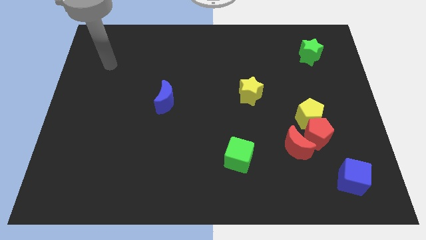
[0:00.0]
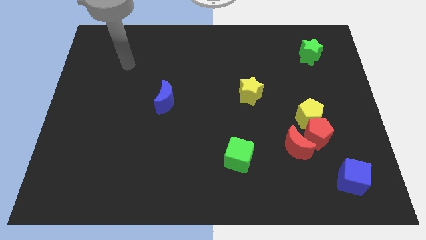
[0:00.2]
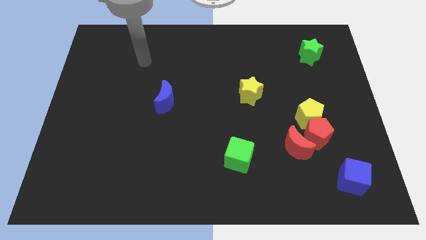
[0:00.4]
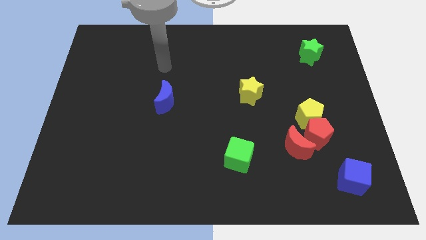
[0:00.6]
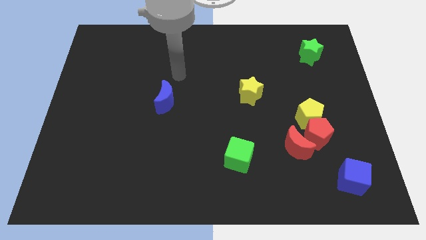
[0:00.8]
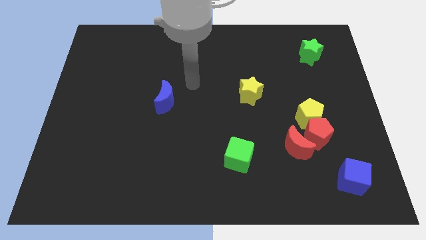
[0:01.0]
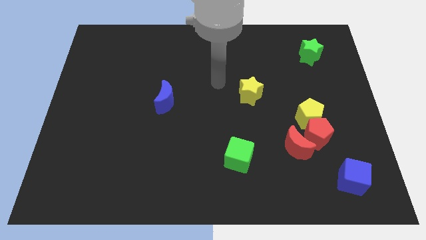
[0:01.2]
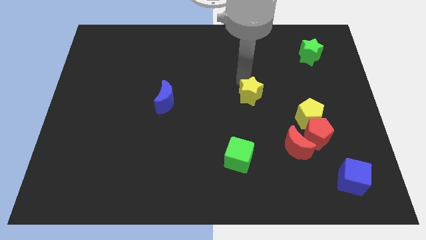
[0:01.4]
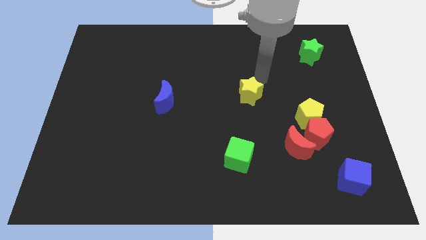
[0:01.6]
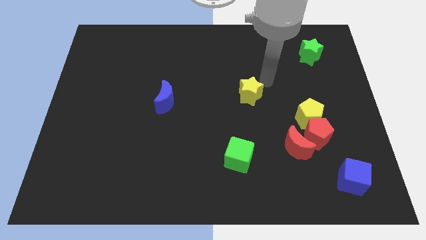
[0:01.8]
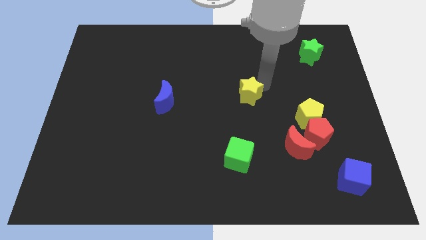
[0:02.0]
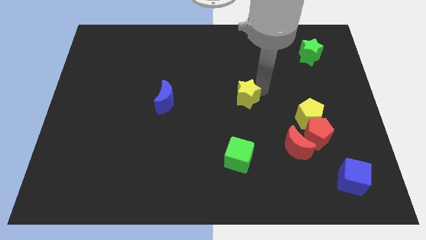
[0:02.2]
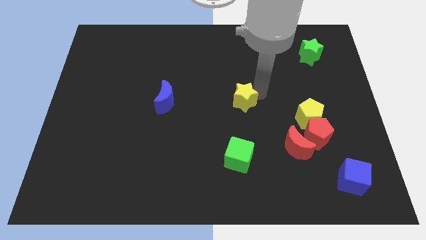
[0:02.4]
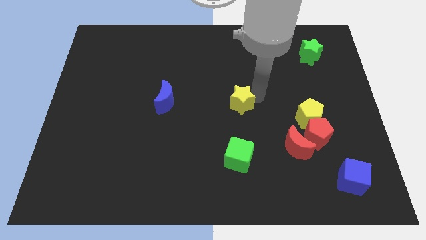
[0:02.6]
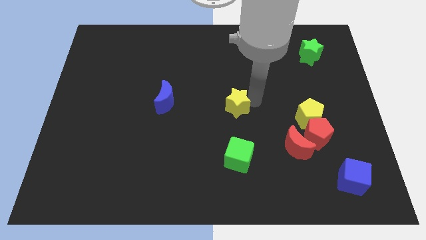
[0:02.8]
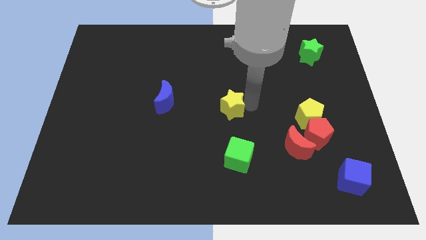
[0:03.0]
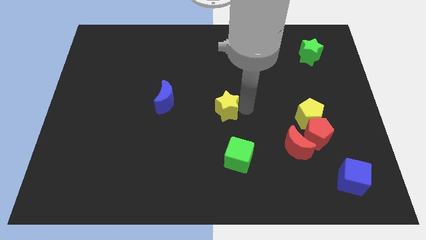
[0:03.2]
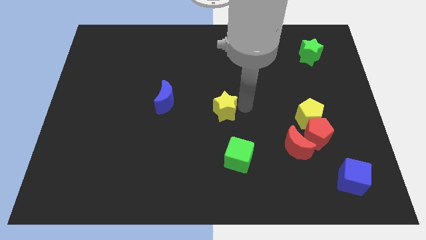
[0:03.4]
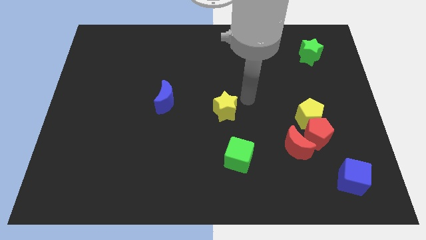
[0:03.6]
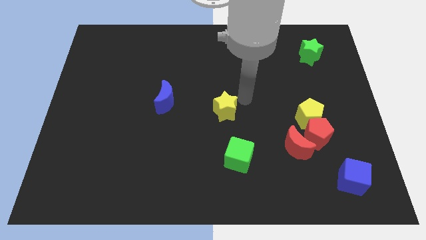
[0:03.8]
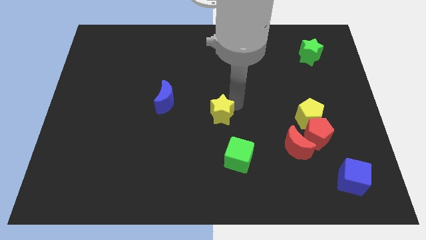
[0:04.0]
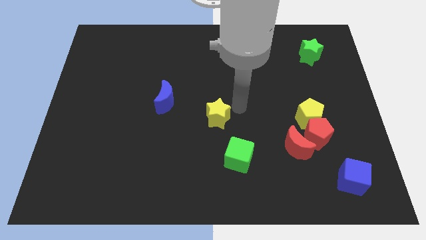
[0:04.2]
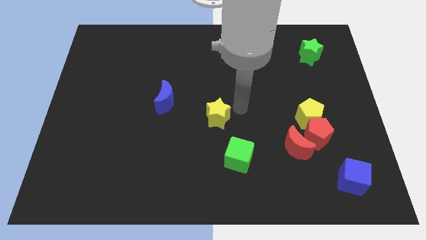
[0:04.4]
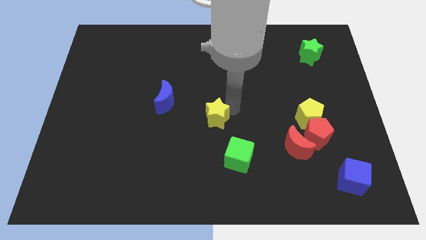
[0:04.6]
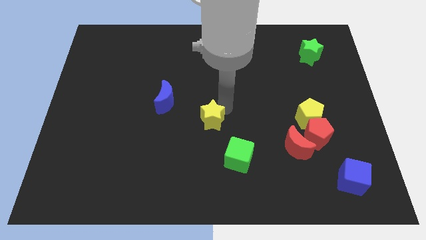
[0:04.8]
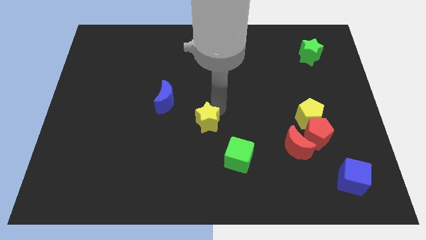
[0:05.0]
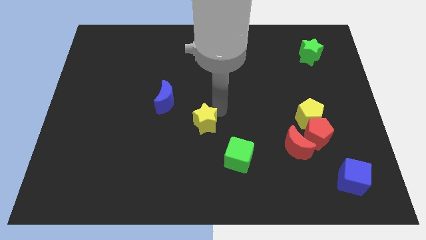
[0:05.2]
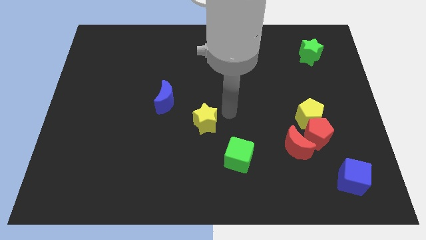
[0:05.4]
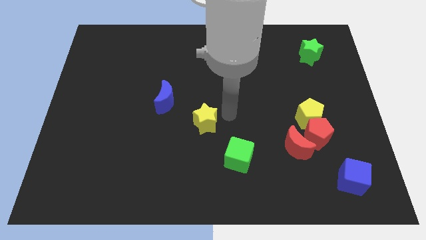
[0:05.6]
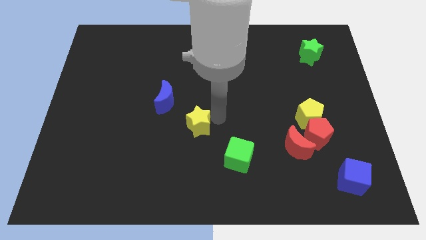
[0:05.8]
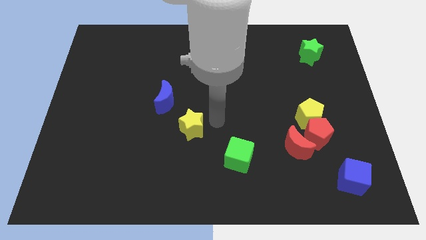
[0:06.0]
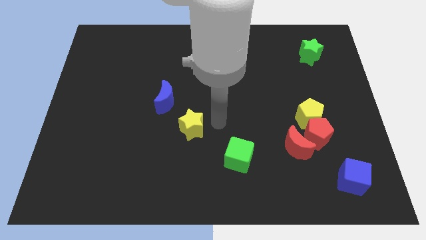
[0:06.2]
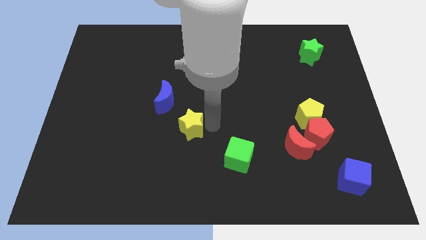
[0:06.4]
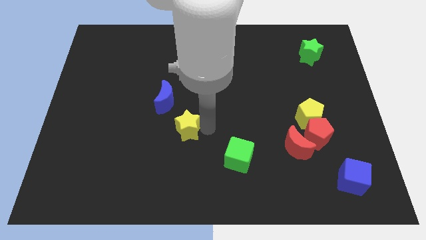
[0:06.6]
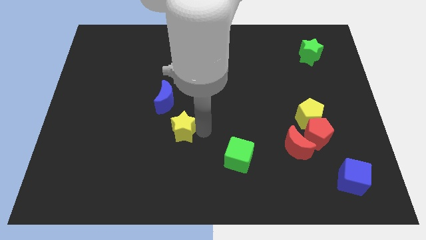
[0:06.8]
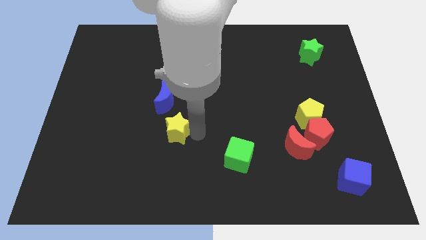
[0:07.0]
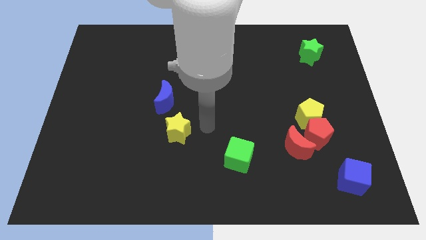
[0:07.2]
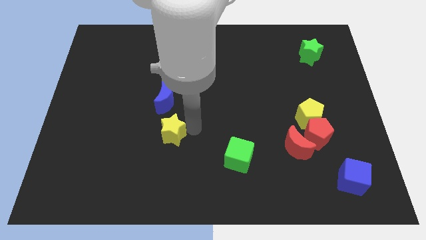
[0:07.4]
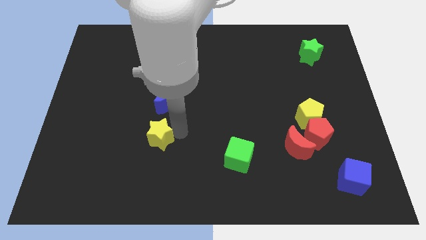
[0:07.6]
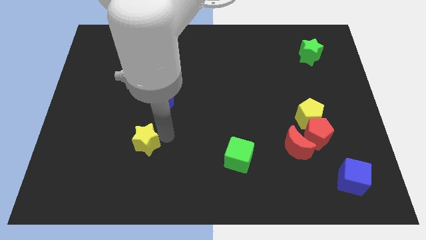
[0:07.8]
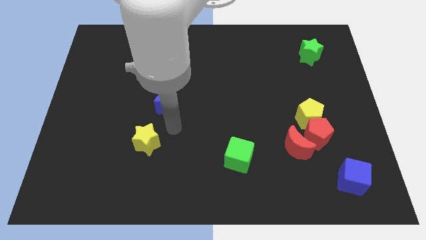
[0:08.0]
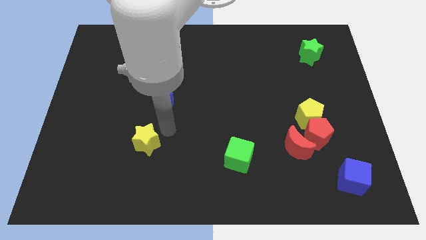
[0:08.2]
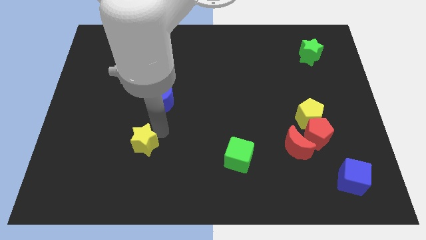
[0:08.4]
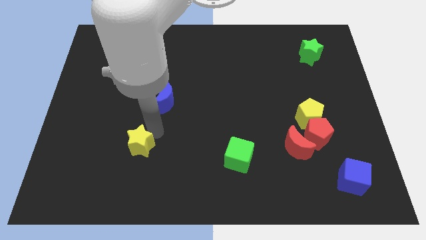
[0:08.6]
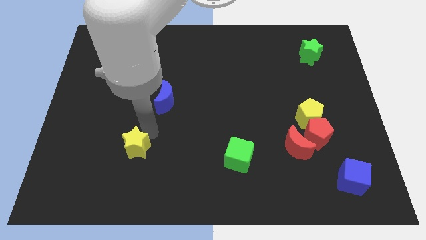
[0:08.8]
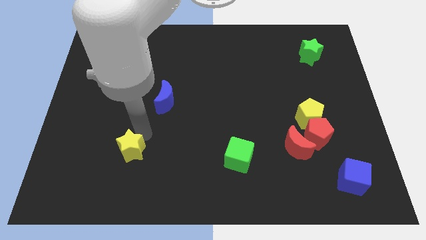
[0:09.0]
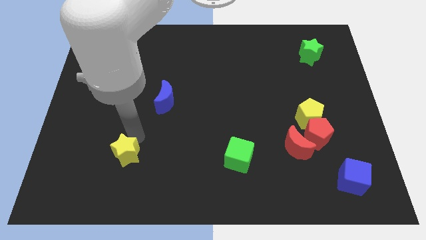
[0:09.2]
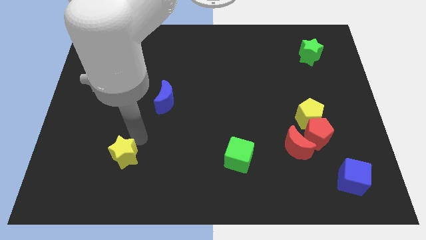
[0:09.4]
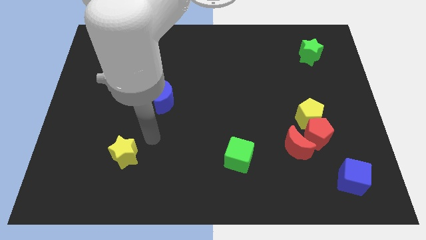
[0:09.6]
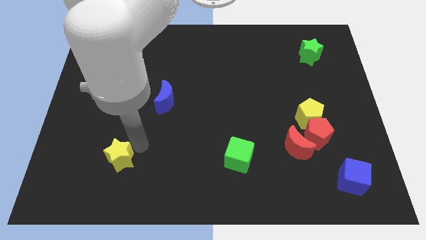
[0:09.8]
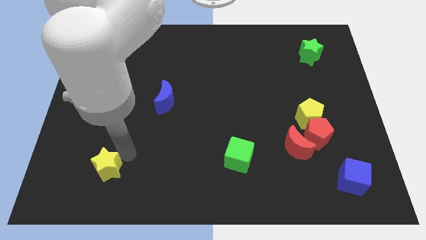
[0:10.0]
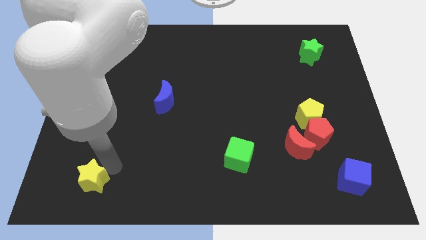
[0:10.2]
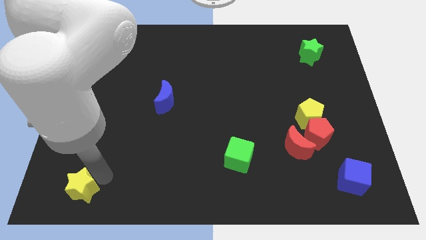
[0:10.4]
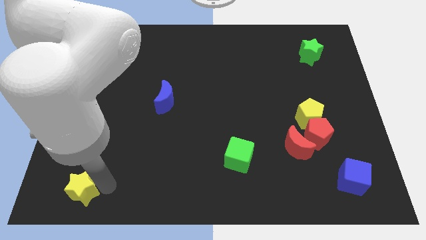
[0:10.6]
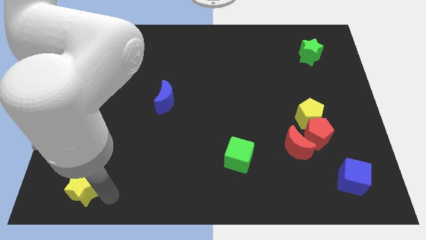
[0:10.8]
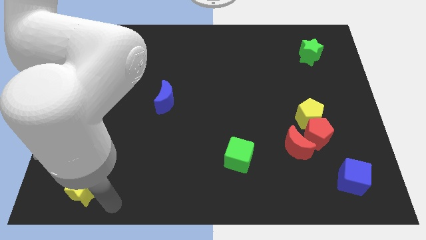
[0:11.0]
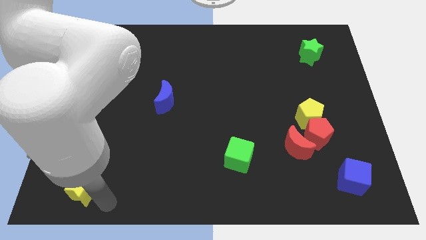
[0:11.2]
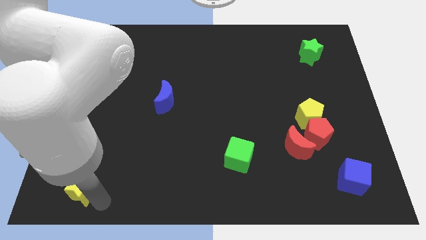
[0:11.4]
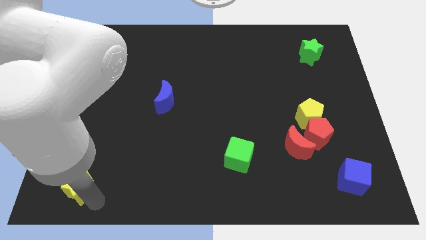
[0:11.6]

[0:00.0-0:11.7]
slide the yellow star to the lower left corner
